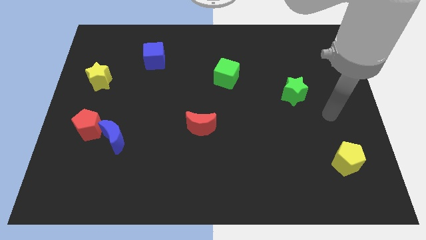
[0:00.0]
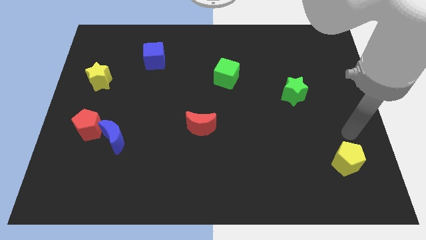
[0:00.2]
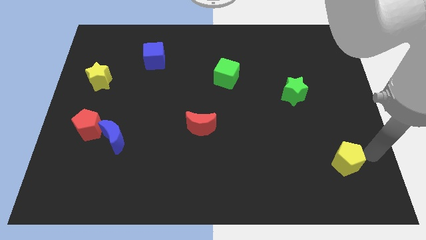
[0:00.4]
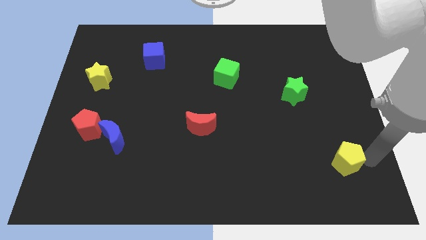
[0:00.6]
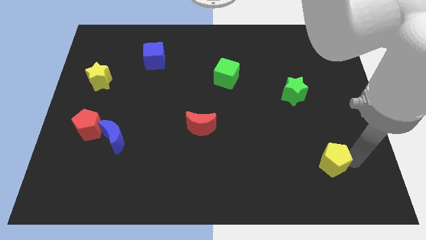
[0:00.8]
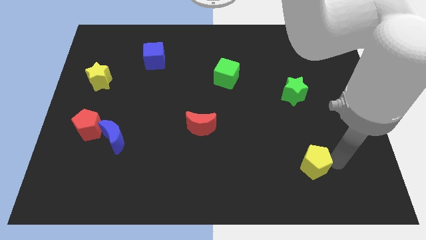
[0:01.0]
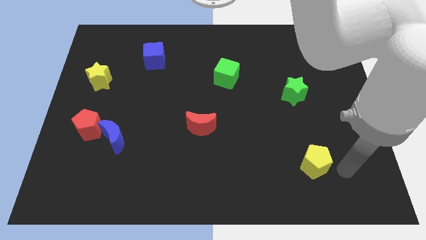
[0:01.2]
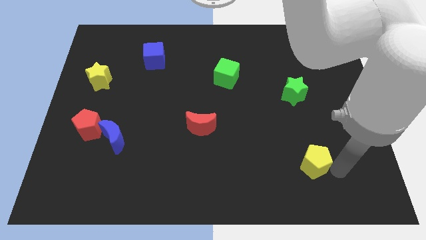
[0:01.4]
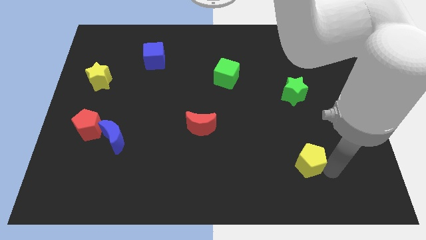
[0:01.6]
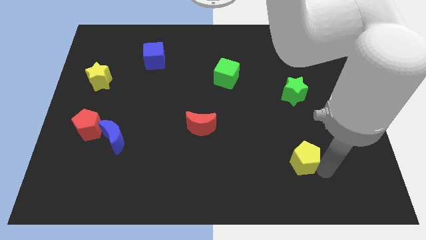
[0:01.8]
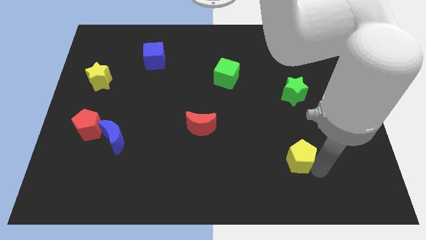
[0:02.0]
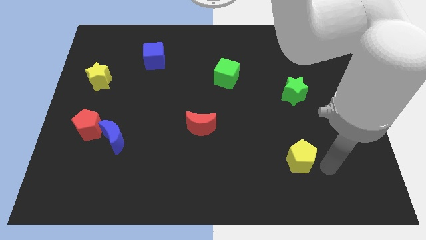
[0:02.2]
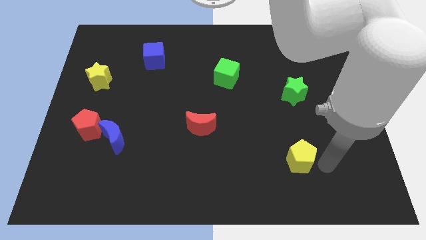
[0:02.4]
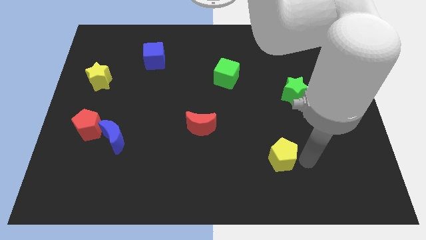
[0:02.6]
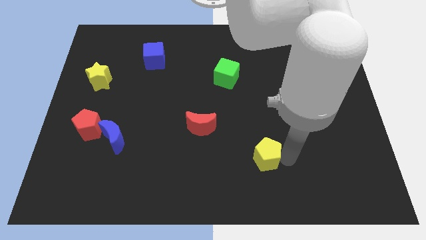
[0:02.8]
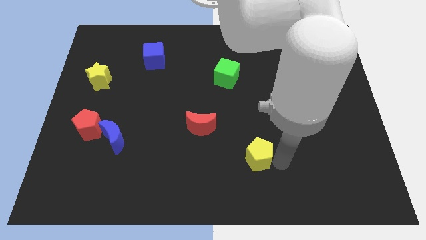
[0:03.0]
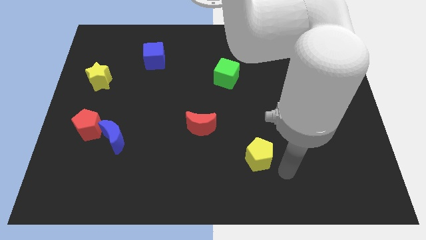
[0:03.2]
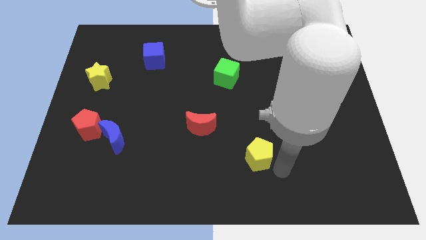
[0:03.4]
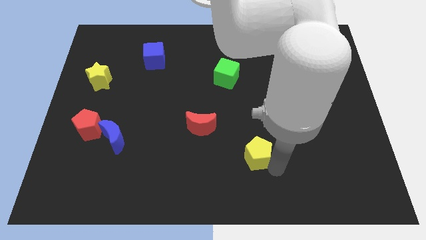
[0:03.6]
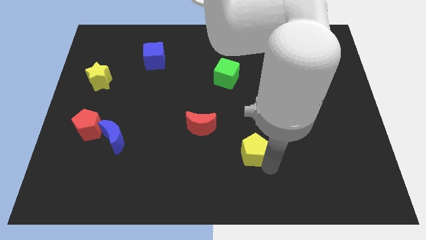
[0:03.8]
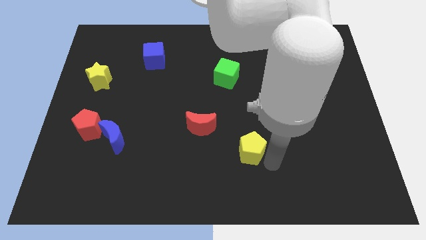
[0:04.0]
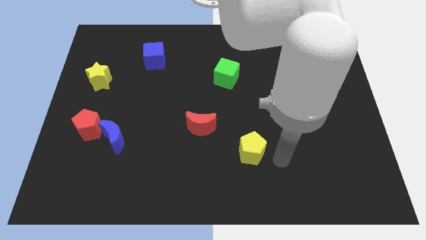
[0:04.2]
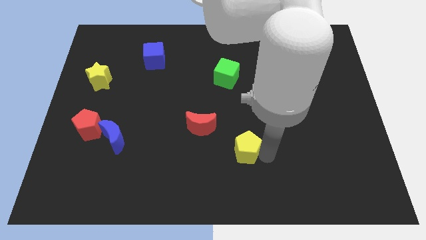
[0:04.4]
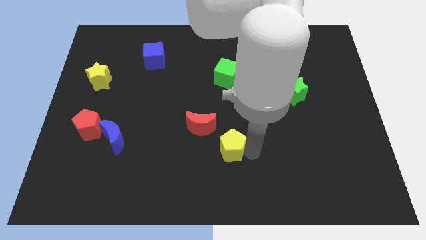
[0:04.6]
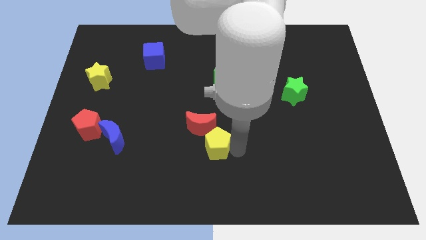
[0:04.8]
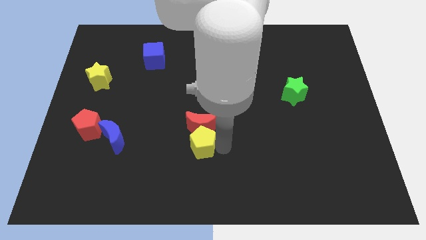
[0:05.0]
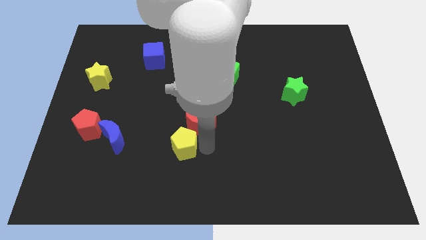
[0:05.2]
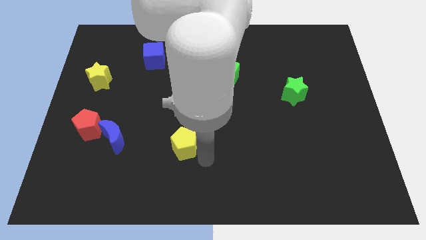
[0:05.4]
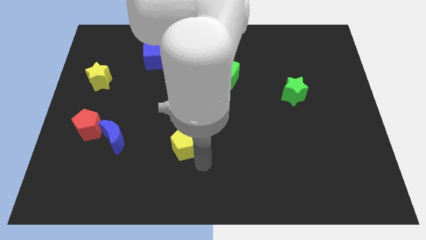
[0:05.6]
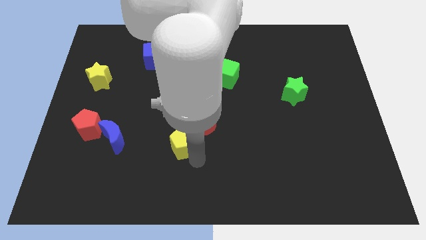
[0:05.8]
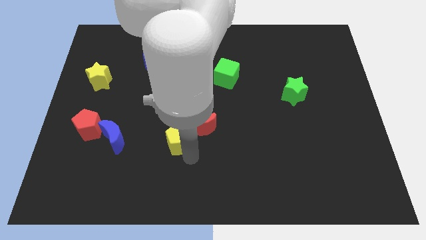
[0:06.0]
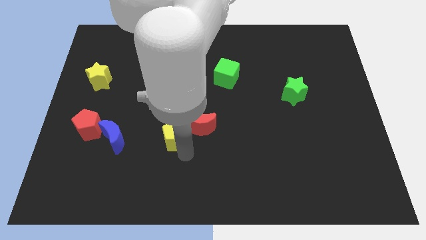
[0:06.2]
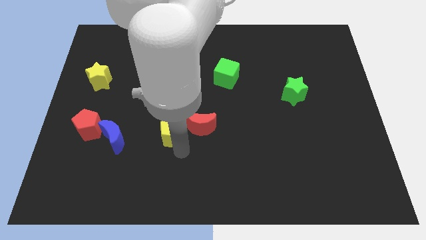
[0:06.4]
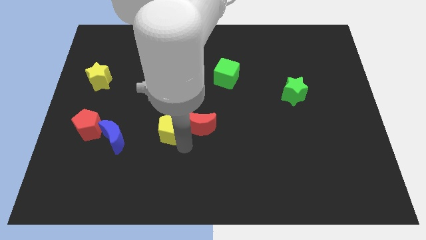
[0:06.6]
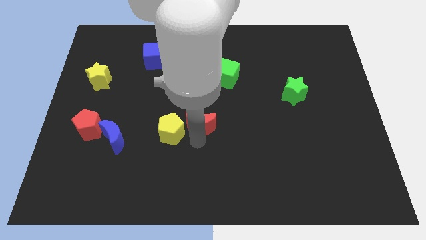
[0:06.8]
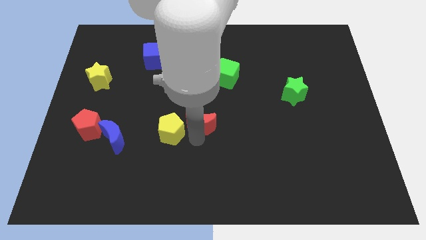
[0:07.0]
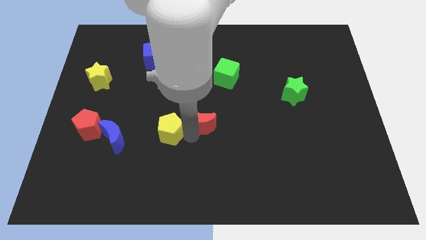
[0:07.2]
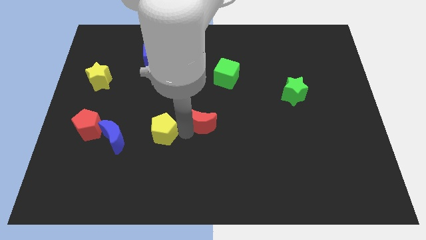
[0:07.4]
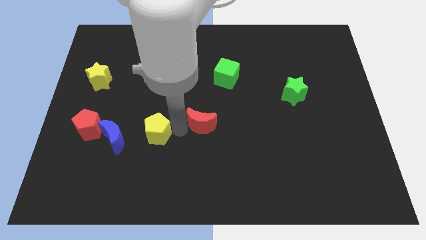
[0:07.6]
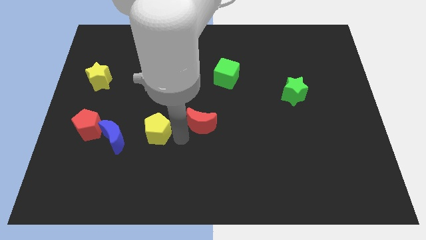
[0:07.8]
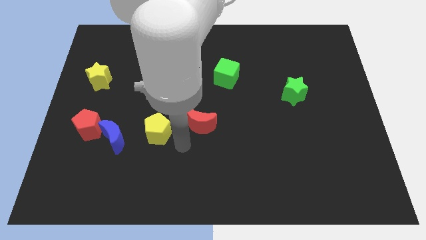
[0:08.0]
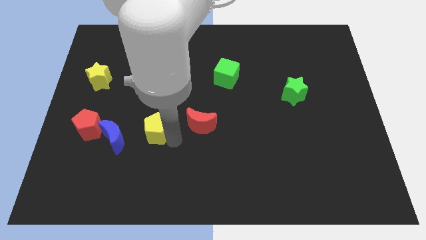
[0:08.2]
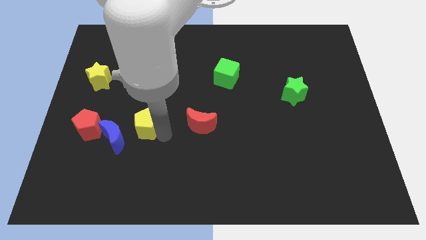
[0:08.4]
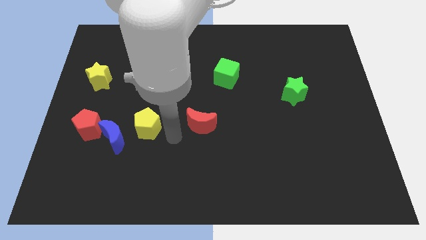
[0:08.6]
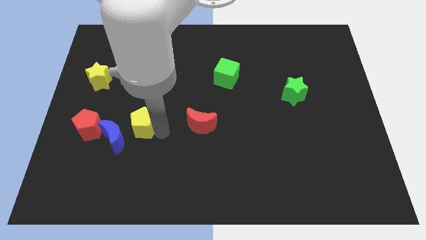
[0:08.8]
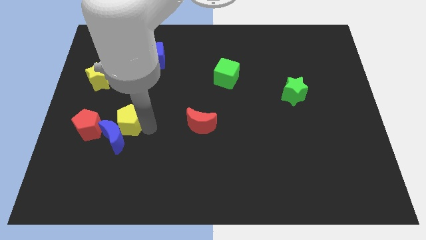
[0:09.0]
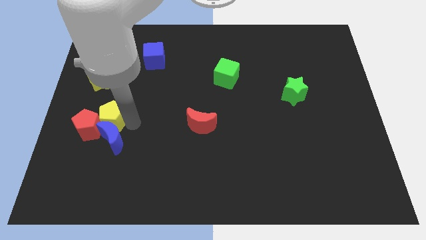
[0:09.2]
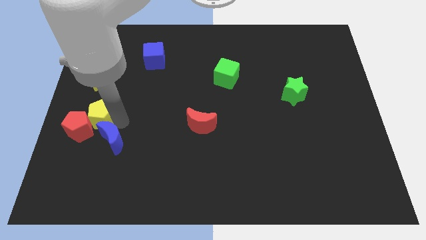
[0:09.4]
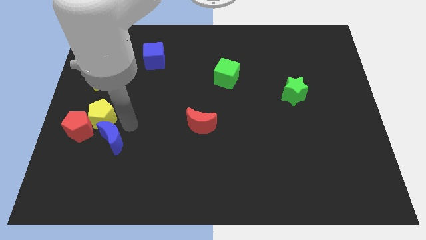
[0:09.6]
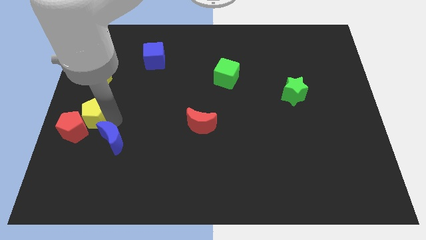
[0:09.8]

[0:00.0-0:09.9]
put the yellow pentagon to the left side

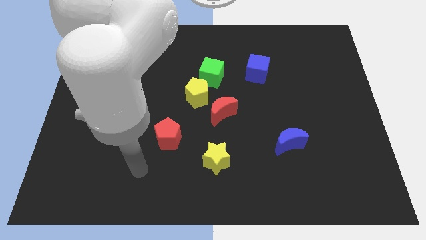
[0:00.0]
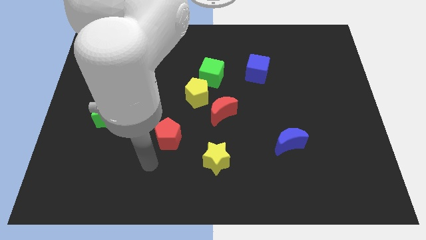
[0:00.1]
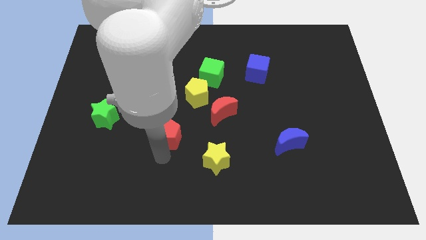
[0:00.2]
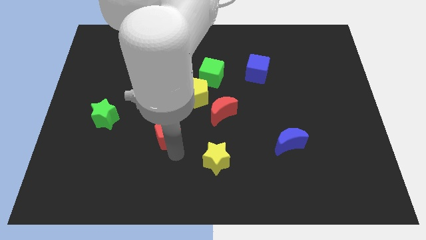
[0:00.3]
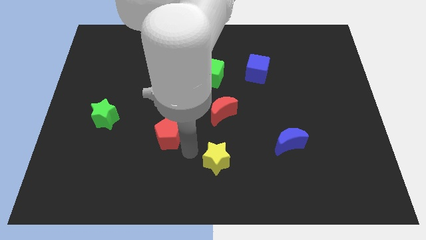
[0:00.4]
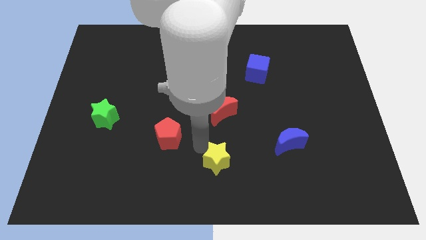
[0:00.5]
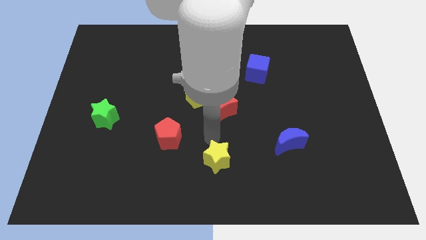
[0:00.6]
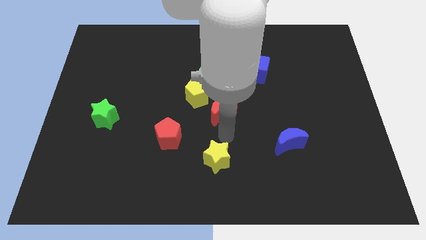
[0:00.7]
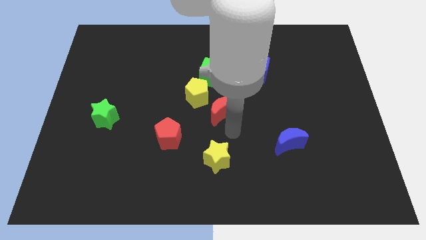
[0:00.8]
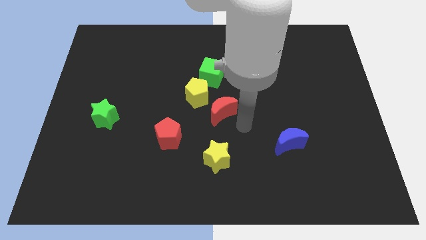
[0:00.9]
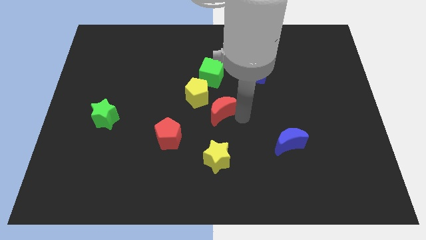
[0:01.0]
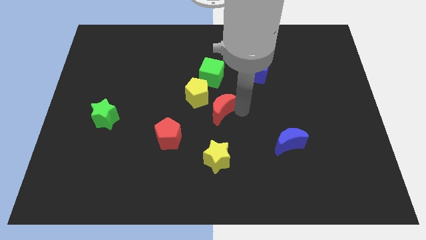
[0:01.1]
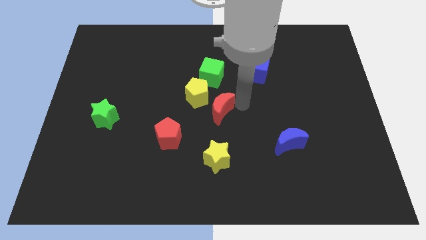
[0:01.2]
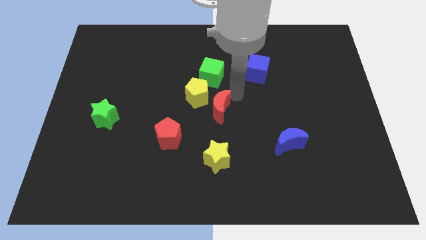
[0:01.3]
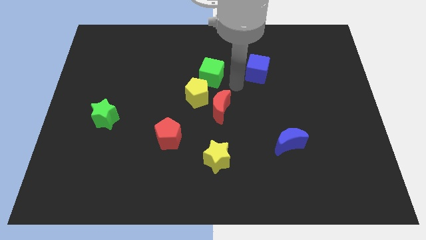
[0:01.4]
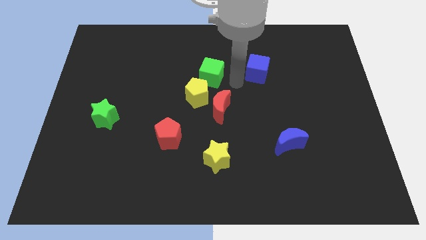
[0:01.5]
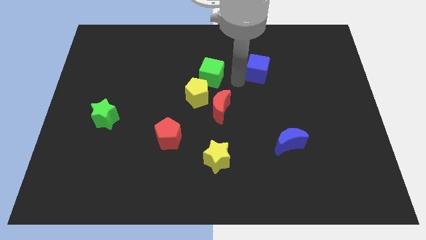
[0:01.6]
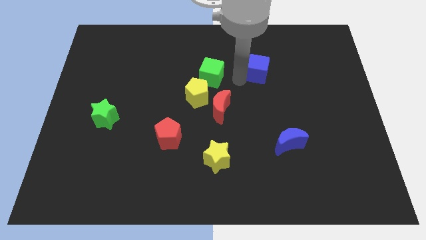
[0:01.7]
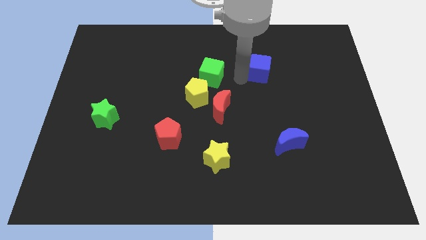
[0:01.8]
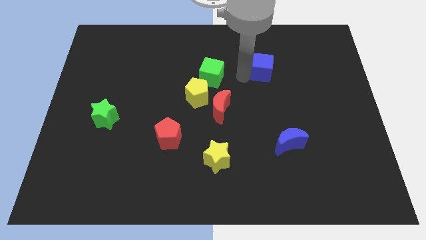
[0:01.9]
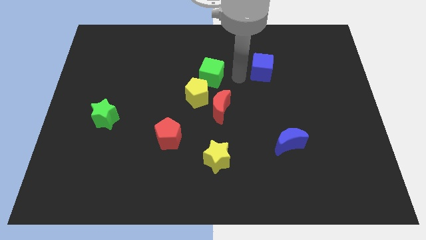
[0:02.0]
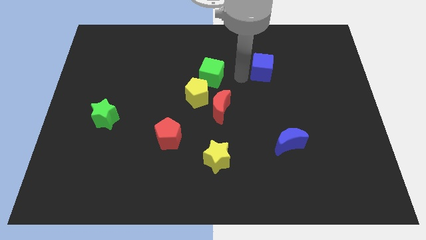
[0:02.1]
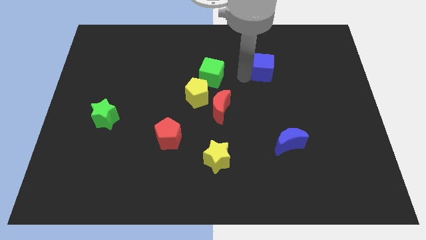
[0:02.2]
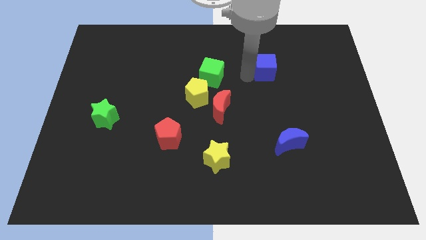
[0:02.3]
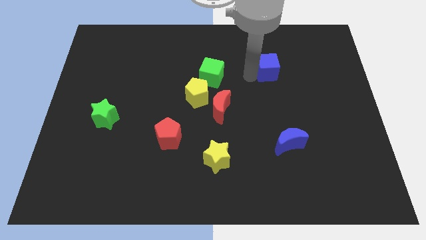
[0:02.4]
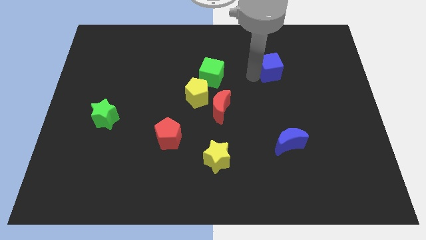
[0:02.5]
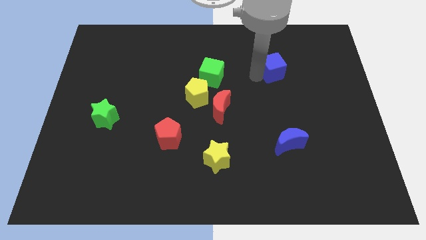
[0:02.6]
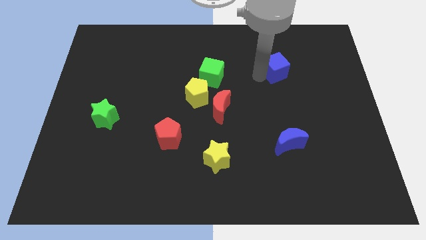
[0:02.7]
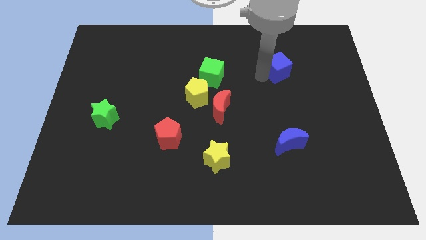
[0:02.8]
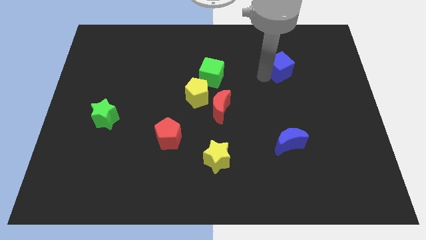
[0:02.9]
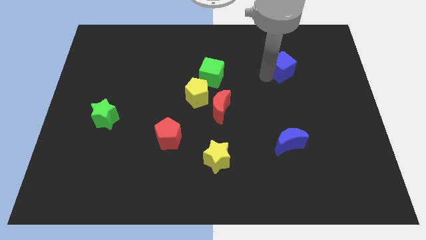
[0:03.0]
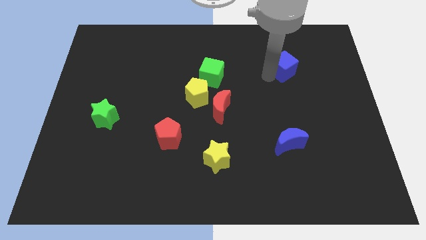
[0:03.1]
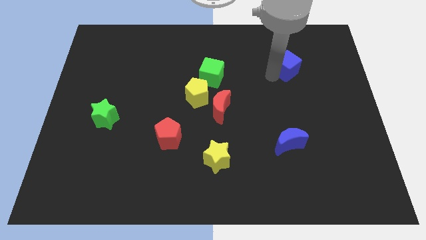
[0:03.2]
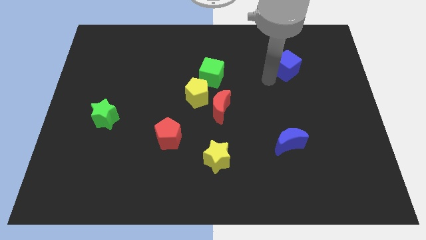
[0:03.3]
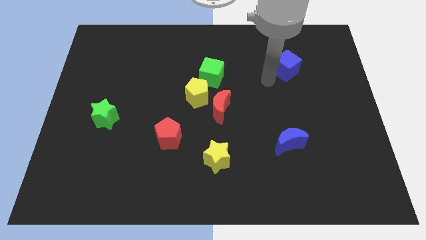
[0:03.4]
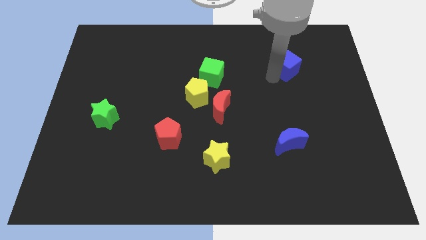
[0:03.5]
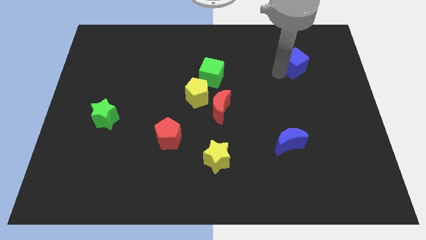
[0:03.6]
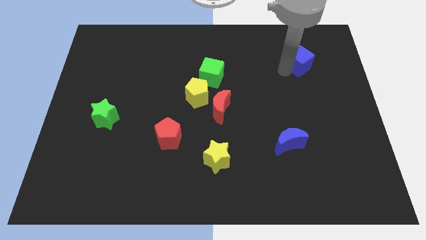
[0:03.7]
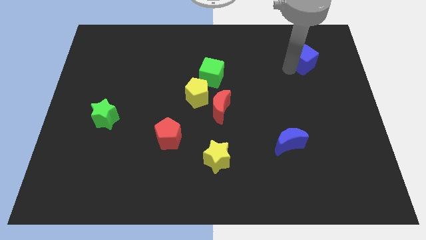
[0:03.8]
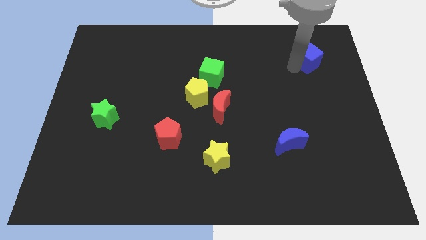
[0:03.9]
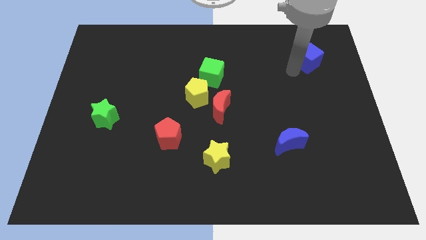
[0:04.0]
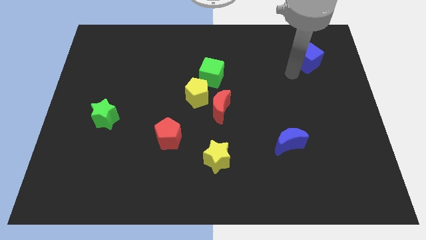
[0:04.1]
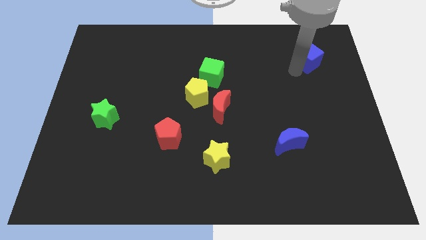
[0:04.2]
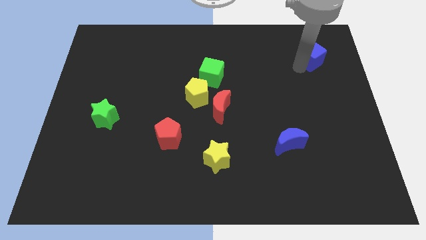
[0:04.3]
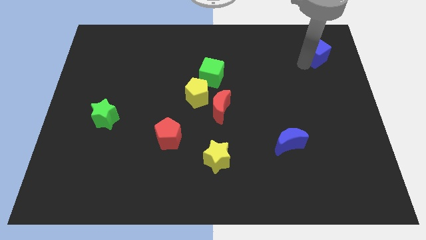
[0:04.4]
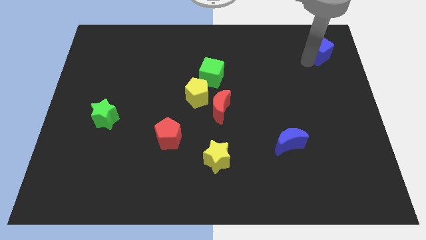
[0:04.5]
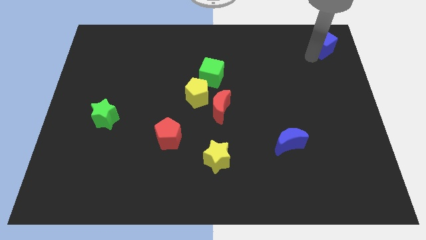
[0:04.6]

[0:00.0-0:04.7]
push the blue cube to the top right of the board
